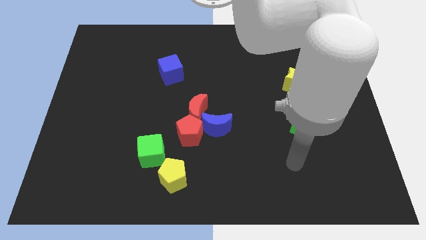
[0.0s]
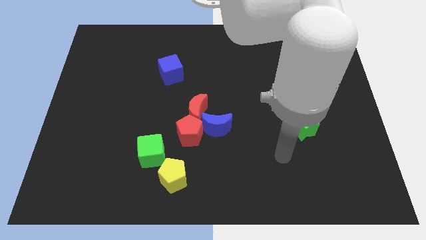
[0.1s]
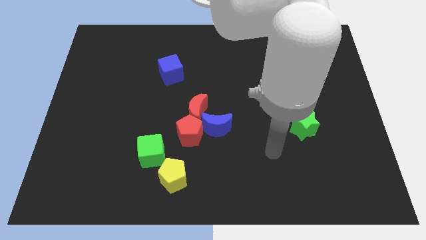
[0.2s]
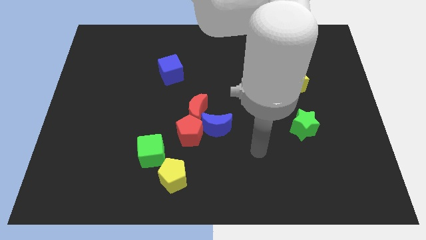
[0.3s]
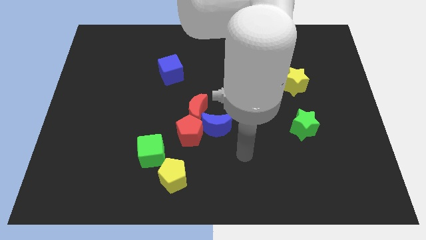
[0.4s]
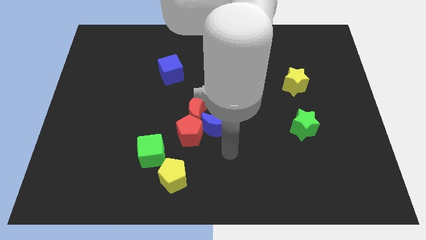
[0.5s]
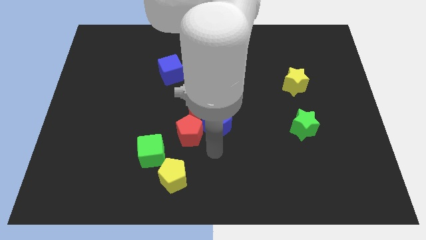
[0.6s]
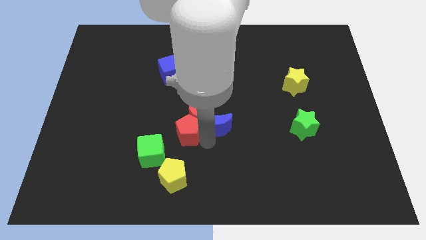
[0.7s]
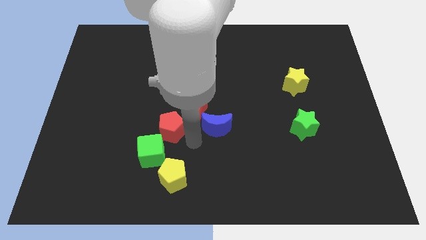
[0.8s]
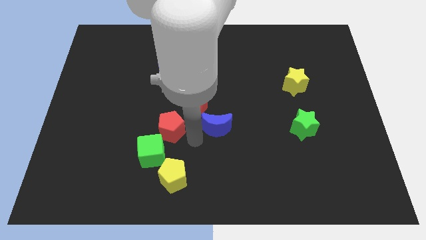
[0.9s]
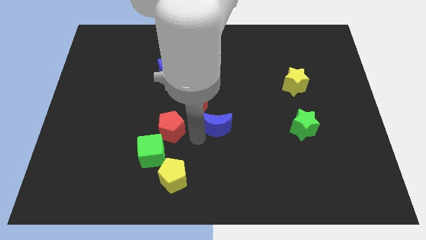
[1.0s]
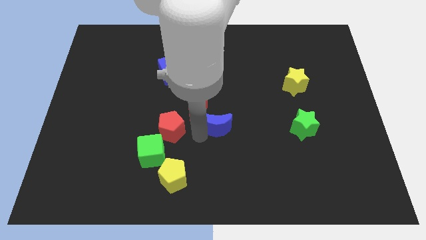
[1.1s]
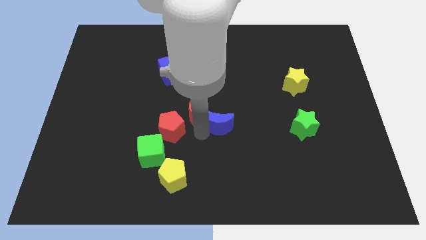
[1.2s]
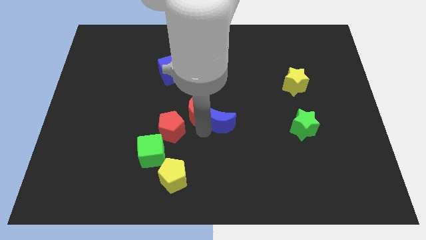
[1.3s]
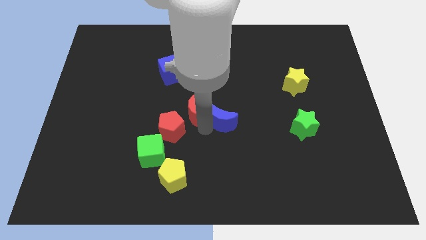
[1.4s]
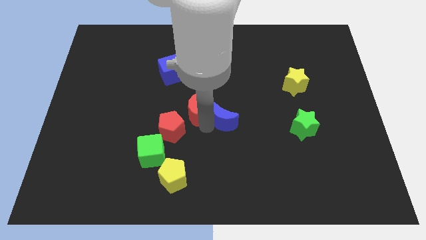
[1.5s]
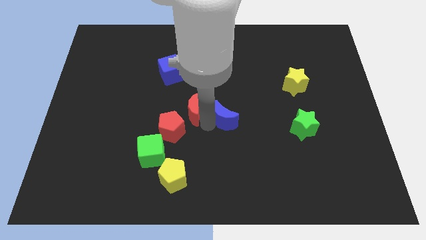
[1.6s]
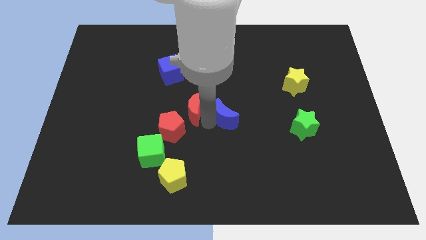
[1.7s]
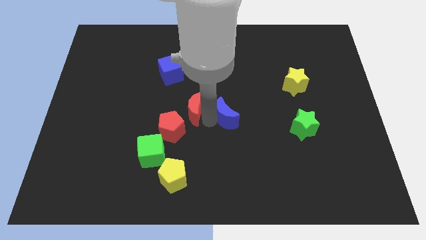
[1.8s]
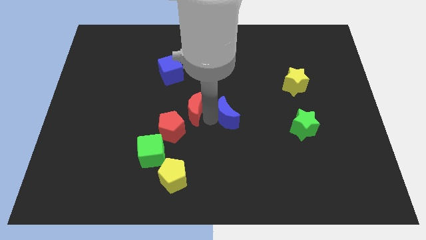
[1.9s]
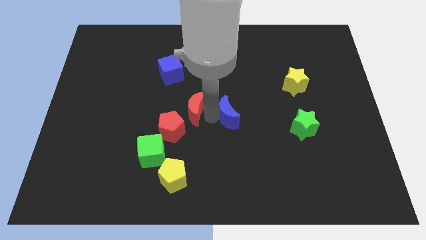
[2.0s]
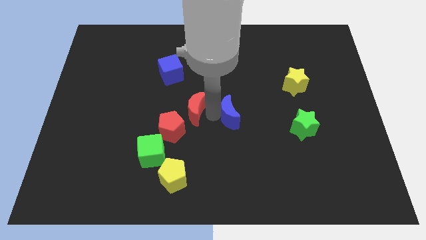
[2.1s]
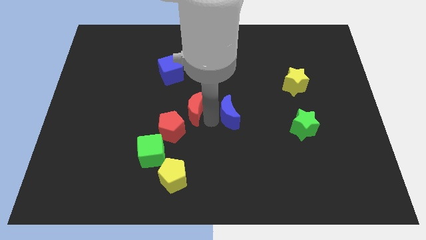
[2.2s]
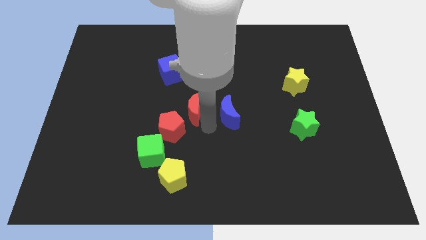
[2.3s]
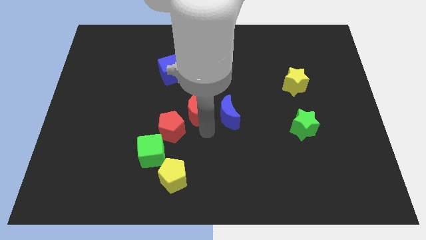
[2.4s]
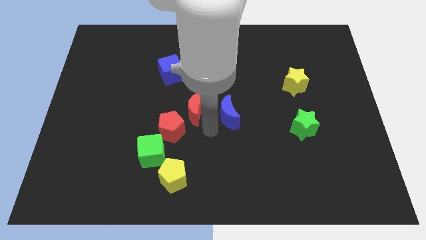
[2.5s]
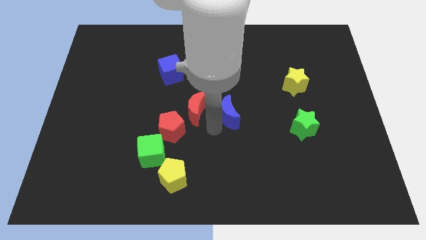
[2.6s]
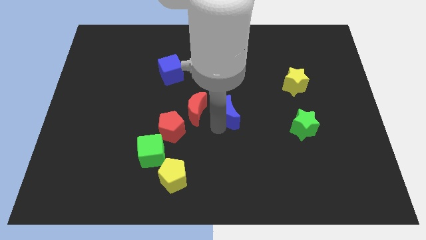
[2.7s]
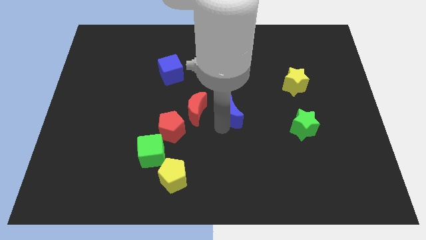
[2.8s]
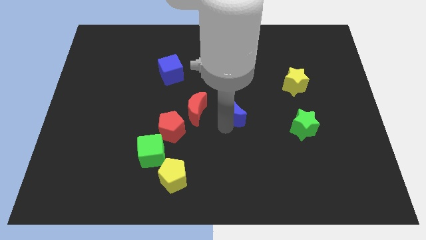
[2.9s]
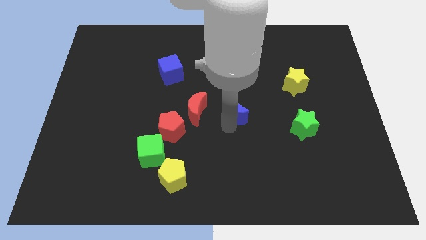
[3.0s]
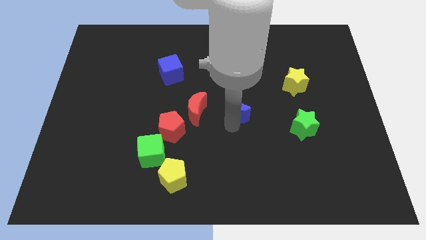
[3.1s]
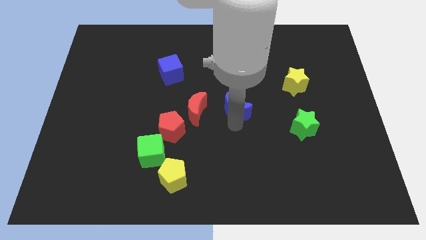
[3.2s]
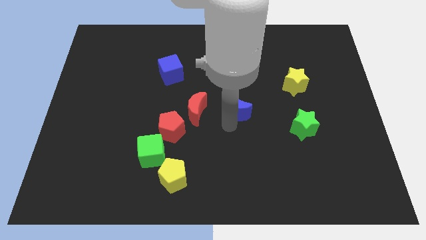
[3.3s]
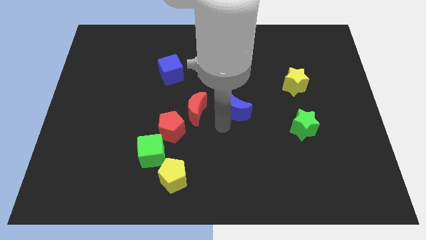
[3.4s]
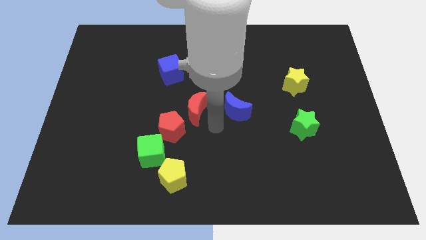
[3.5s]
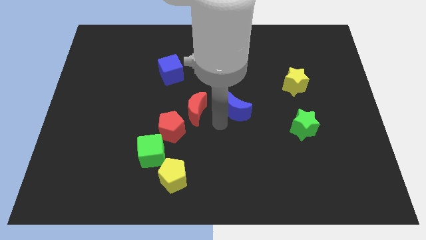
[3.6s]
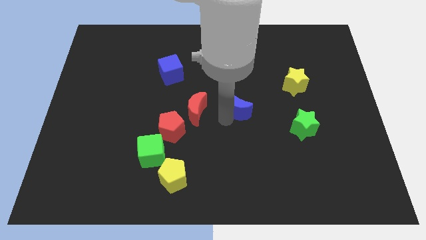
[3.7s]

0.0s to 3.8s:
slightly move the blue moon upwards and then right

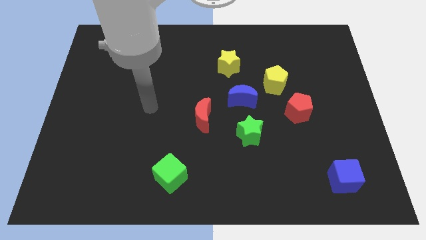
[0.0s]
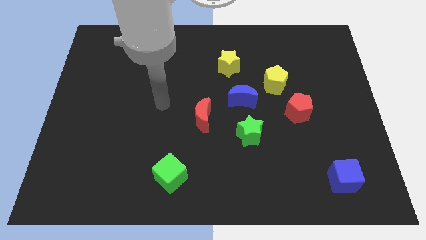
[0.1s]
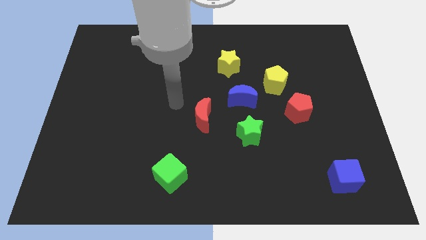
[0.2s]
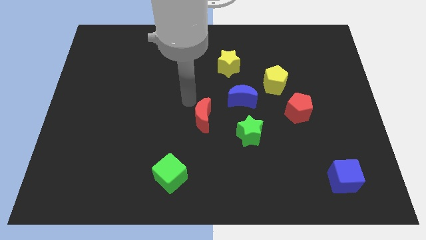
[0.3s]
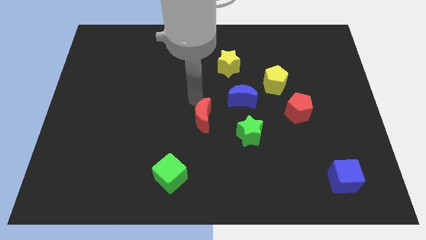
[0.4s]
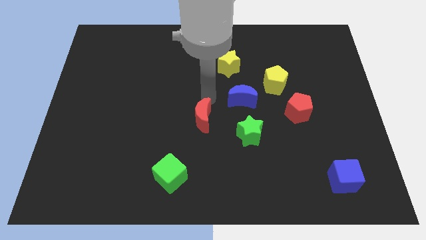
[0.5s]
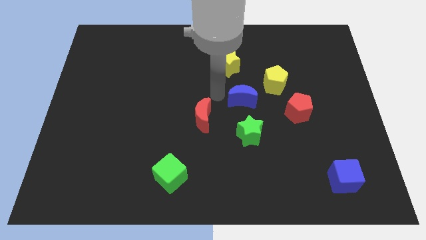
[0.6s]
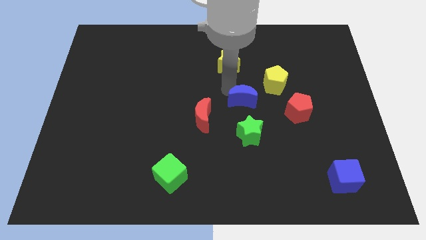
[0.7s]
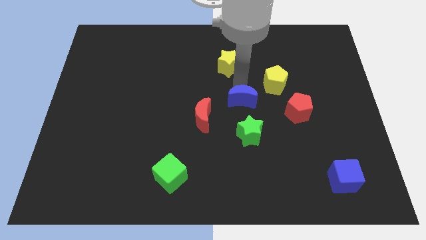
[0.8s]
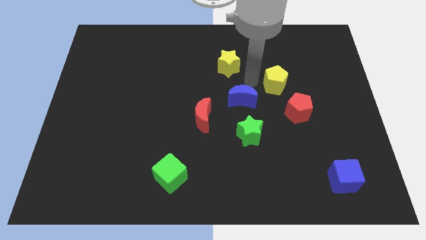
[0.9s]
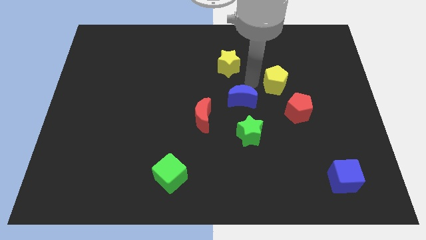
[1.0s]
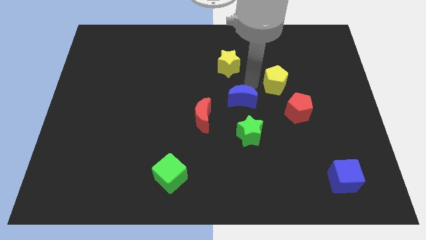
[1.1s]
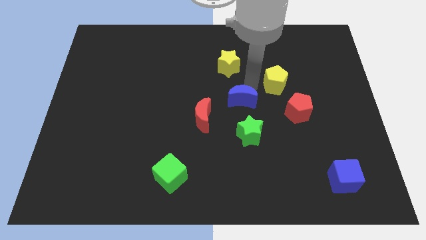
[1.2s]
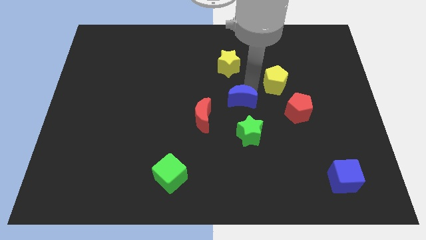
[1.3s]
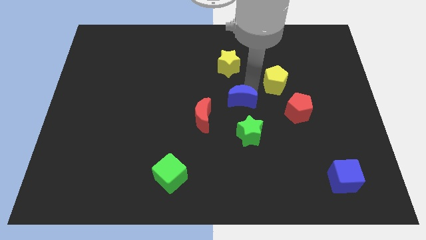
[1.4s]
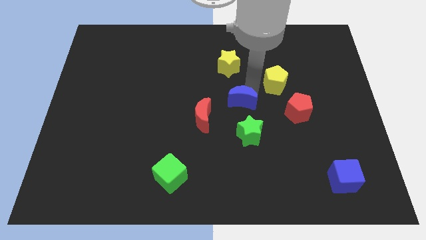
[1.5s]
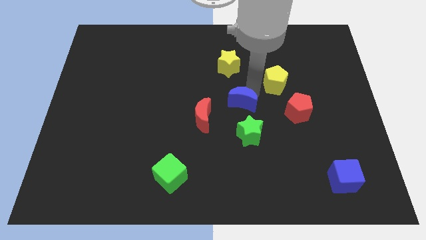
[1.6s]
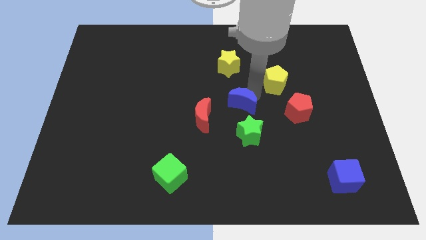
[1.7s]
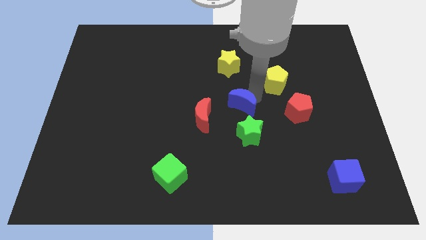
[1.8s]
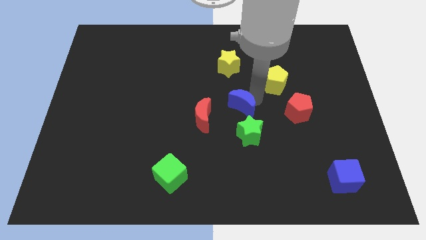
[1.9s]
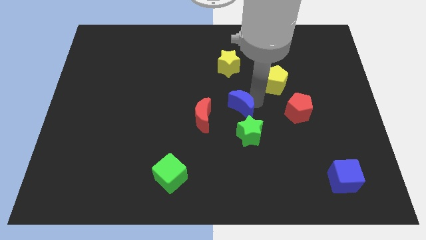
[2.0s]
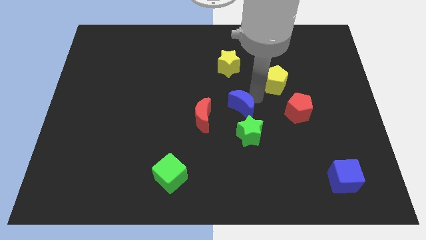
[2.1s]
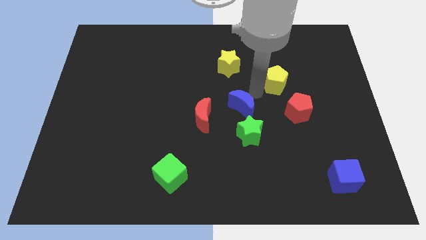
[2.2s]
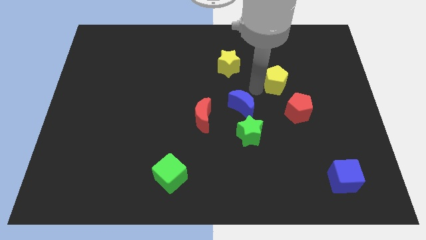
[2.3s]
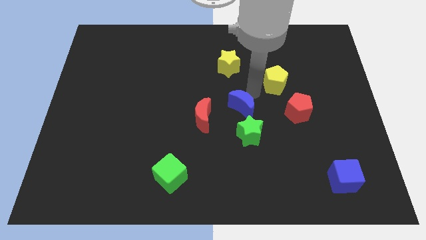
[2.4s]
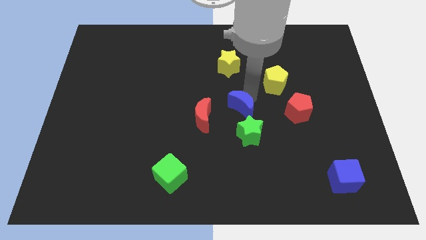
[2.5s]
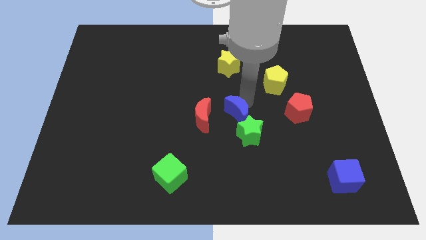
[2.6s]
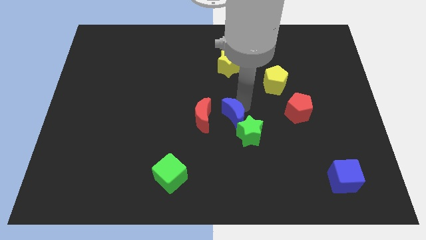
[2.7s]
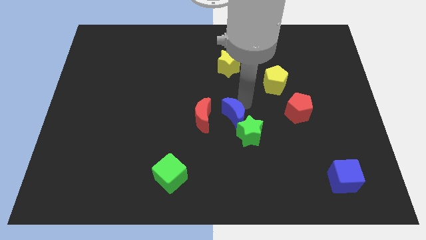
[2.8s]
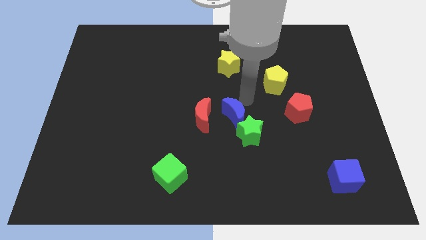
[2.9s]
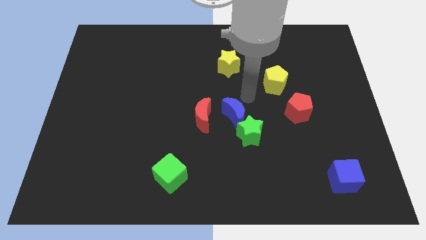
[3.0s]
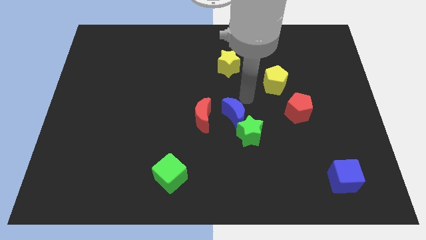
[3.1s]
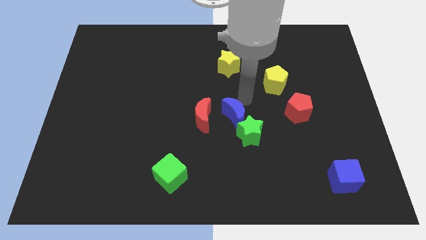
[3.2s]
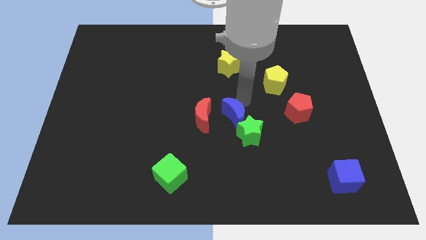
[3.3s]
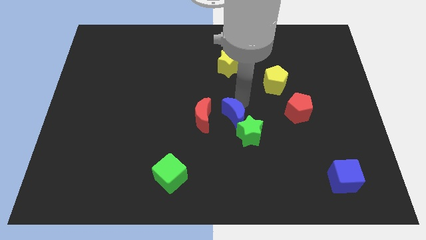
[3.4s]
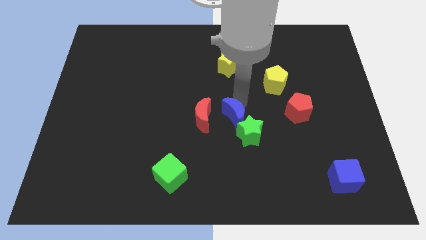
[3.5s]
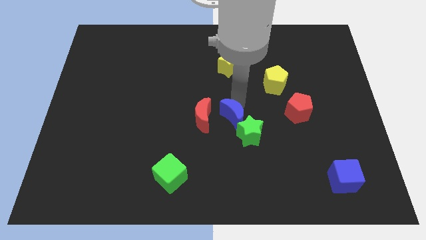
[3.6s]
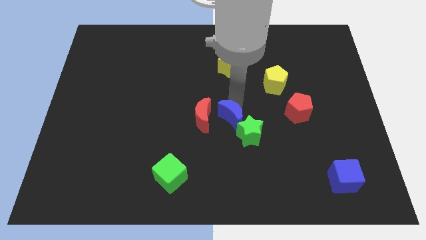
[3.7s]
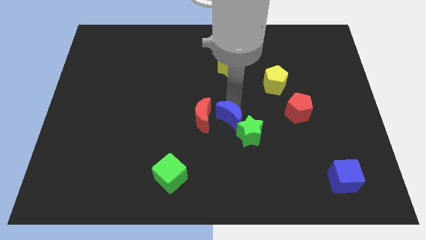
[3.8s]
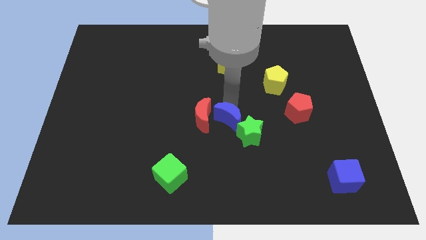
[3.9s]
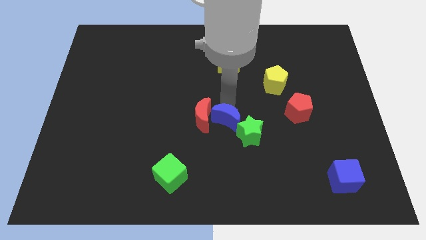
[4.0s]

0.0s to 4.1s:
slightly push the blue moon diagonally down and to the left

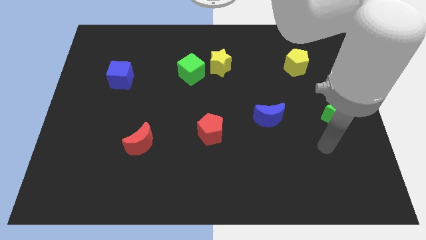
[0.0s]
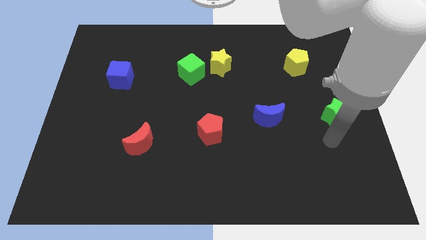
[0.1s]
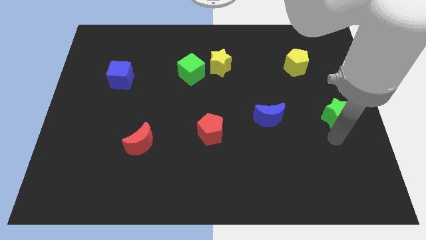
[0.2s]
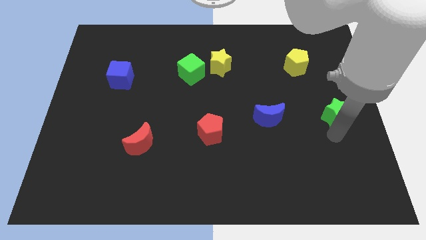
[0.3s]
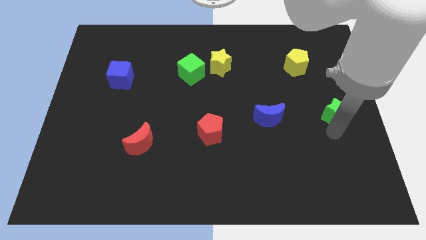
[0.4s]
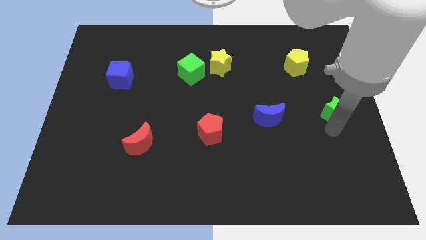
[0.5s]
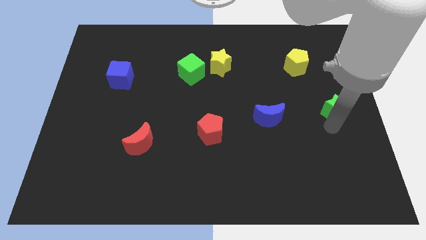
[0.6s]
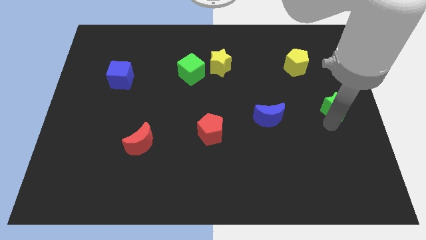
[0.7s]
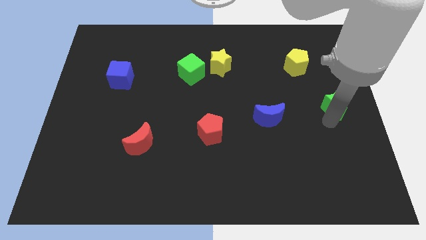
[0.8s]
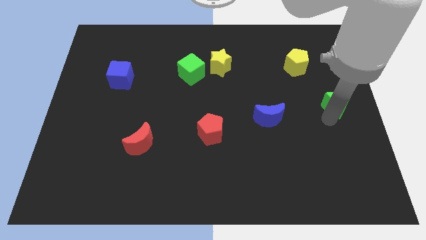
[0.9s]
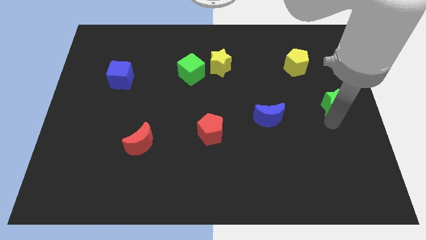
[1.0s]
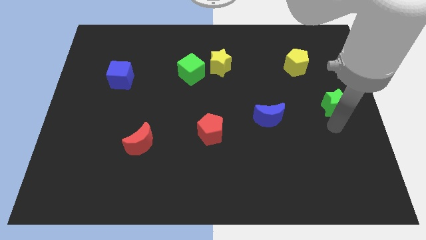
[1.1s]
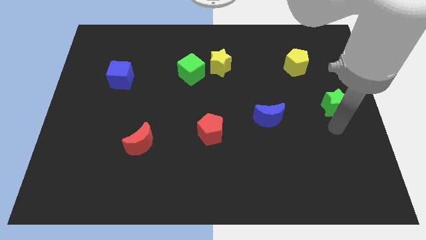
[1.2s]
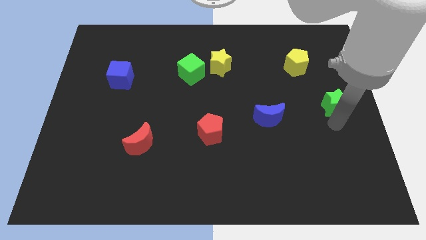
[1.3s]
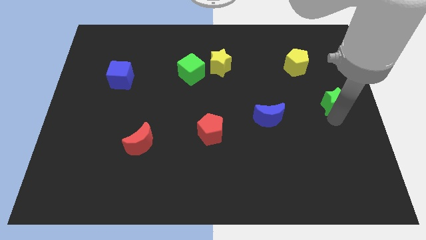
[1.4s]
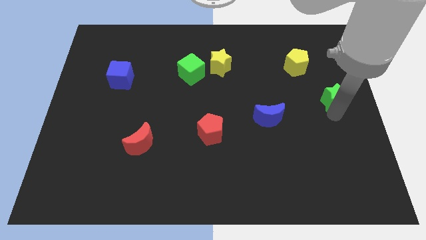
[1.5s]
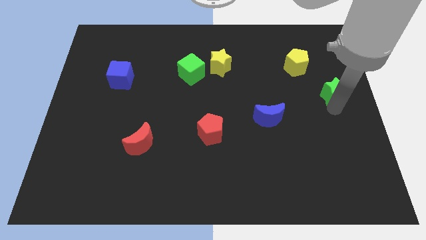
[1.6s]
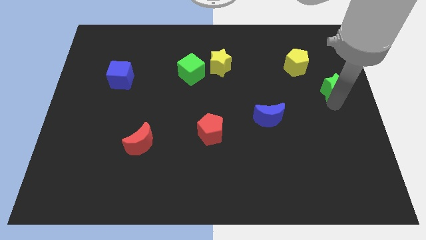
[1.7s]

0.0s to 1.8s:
move the green star up a little
